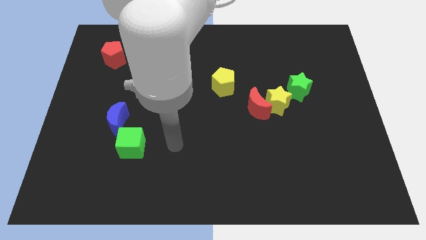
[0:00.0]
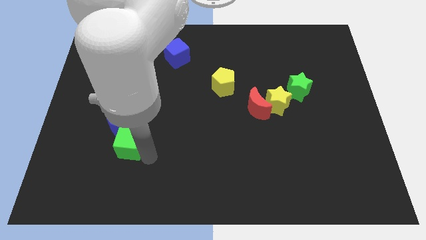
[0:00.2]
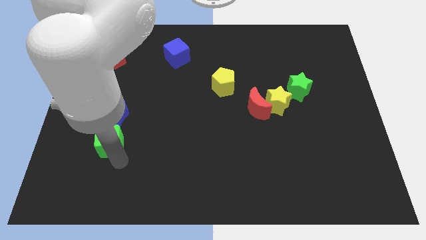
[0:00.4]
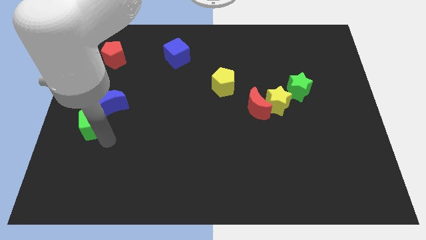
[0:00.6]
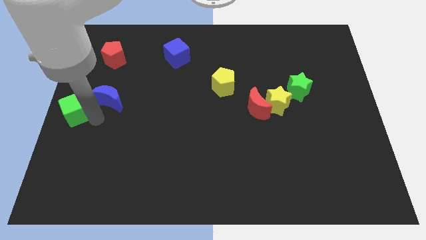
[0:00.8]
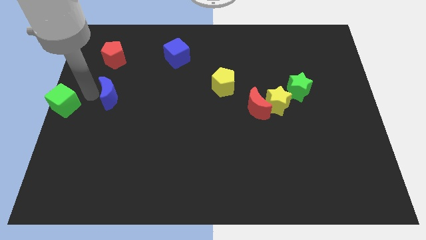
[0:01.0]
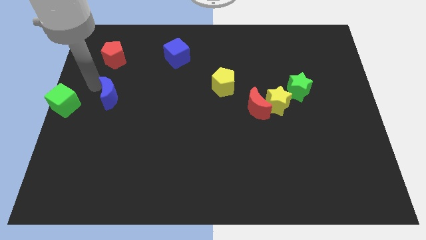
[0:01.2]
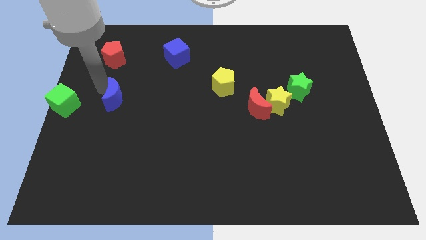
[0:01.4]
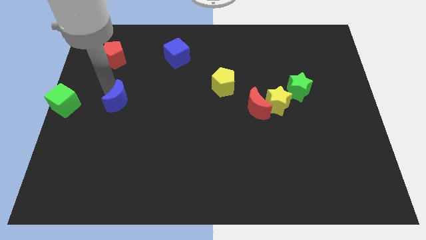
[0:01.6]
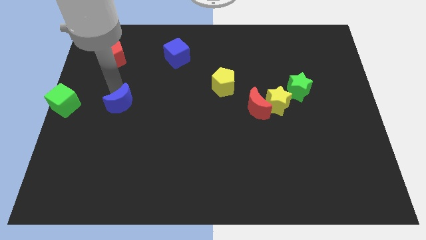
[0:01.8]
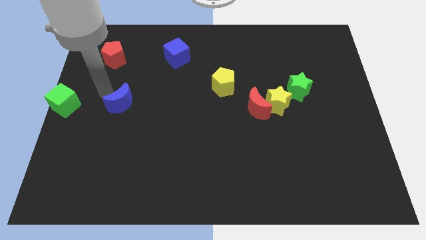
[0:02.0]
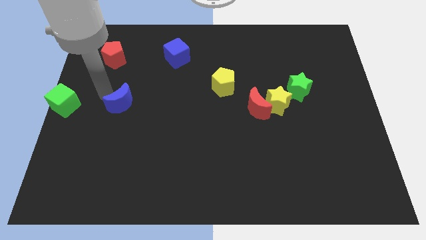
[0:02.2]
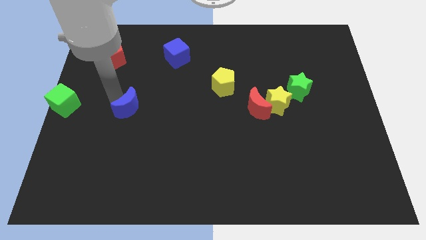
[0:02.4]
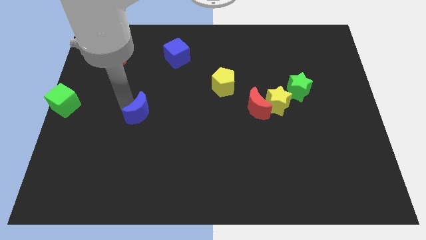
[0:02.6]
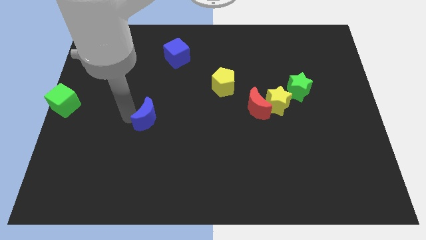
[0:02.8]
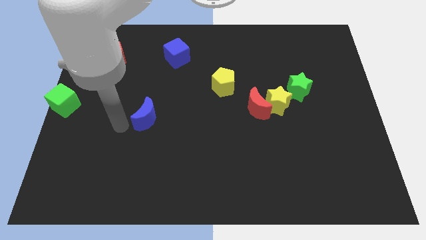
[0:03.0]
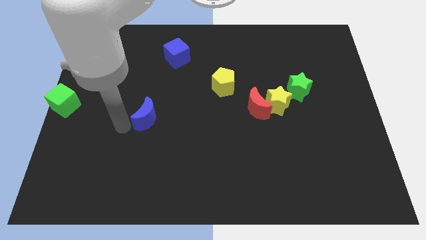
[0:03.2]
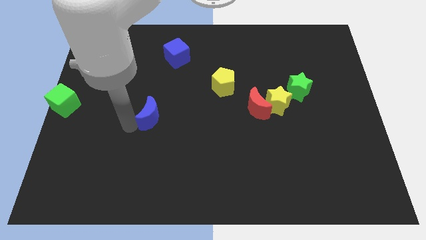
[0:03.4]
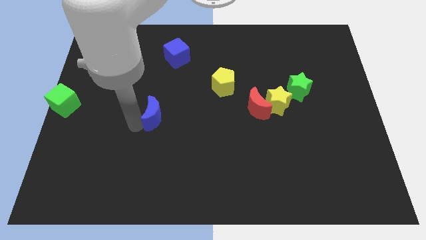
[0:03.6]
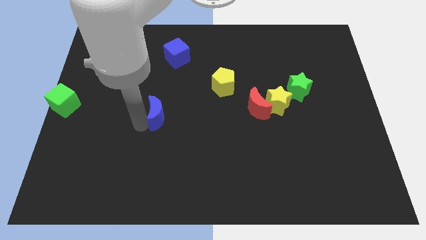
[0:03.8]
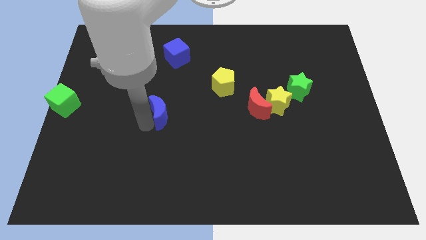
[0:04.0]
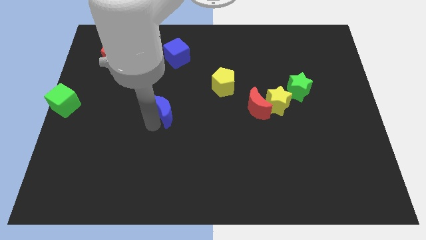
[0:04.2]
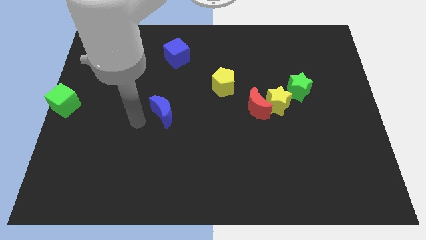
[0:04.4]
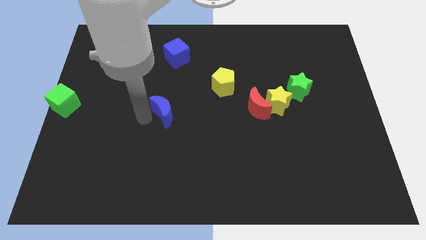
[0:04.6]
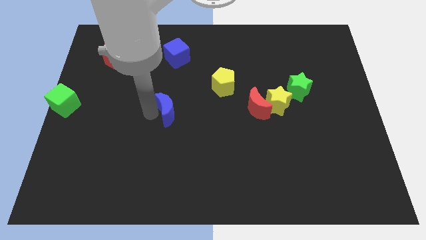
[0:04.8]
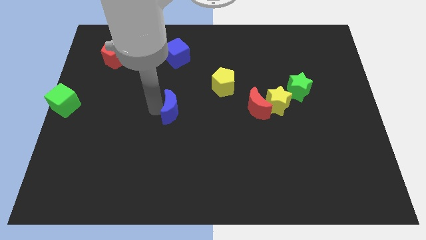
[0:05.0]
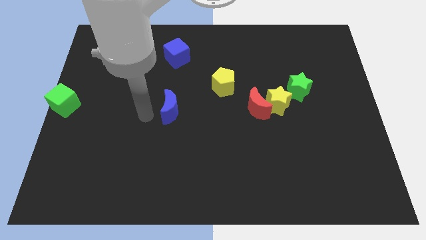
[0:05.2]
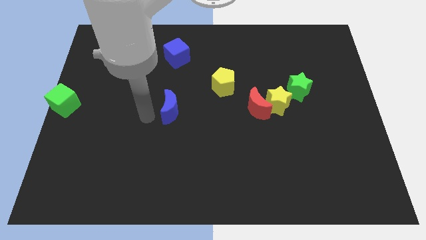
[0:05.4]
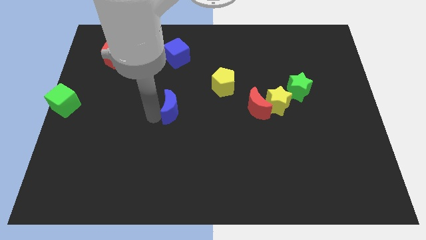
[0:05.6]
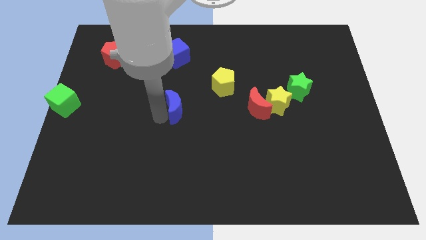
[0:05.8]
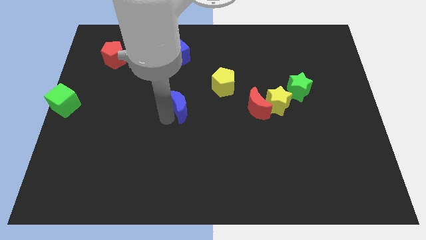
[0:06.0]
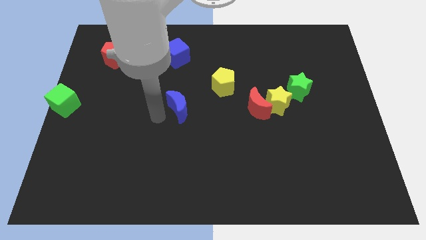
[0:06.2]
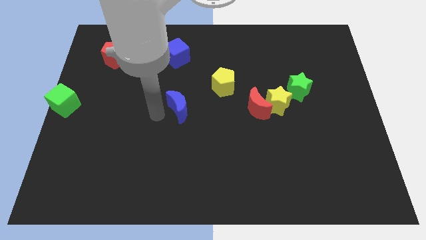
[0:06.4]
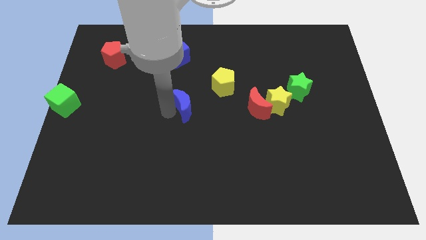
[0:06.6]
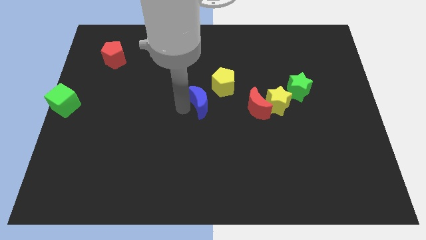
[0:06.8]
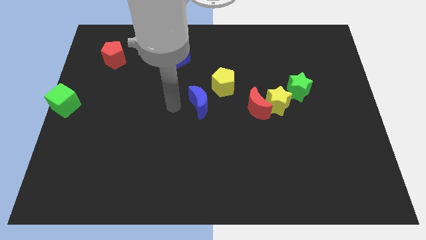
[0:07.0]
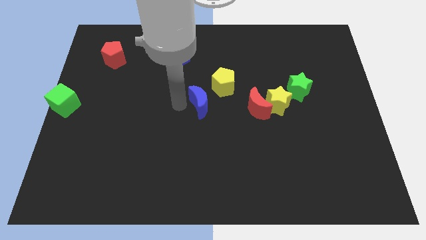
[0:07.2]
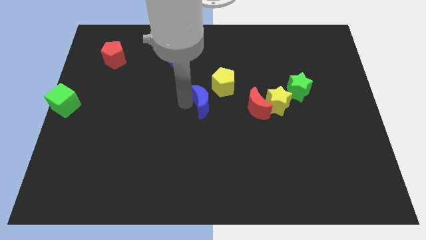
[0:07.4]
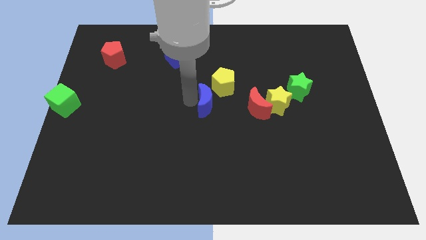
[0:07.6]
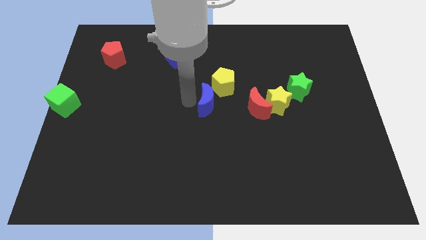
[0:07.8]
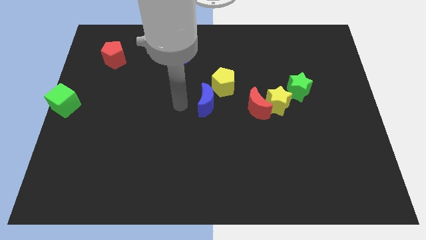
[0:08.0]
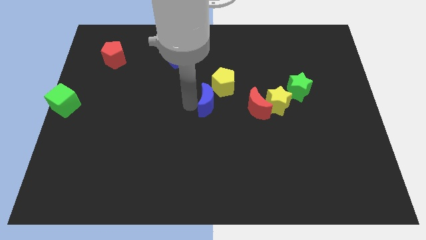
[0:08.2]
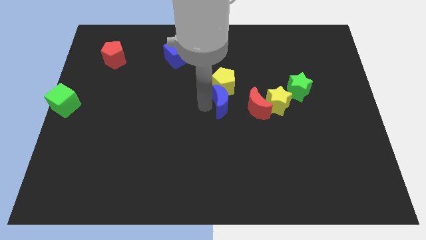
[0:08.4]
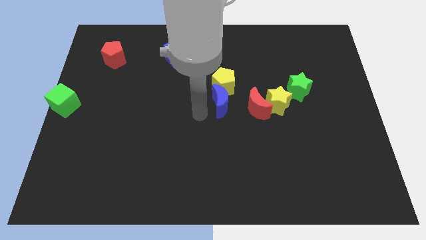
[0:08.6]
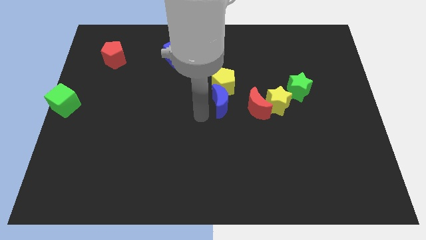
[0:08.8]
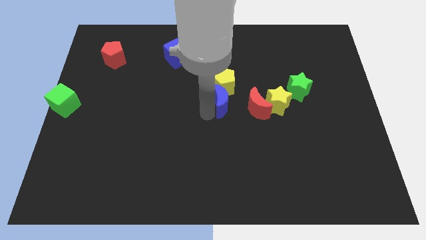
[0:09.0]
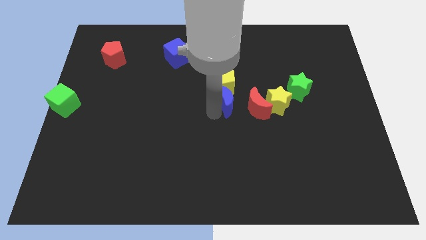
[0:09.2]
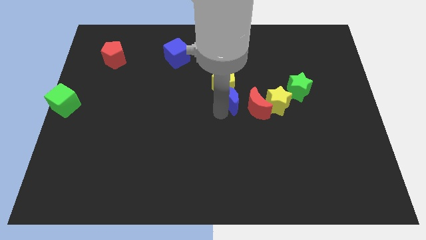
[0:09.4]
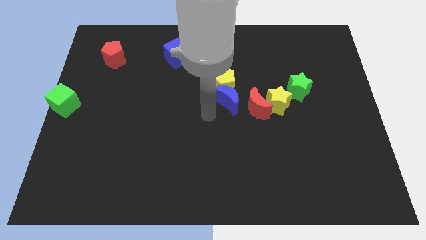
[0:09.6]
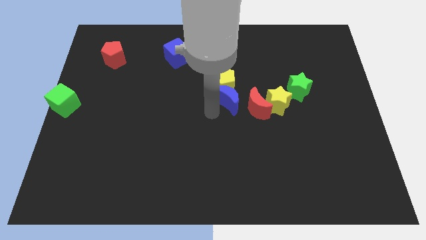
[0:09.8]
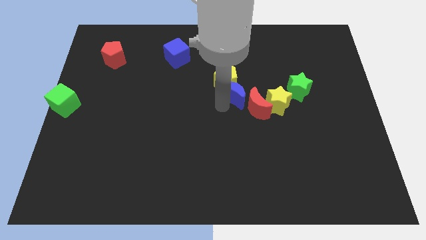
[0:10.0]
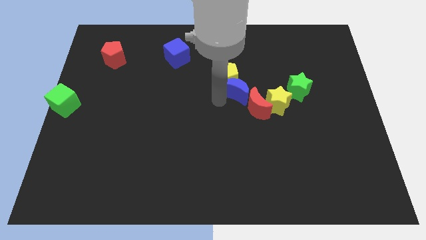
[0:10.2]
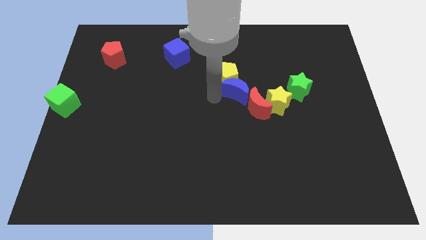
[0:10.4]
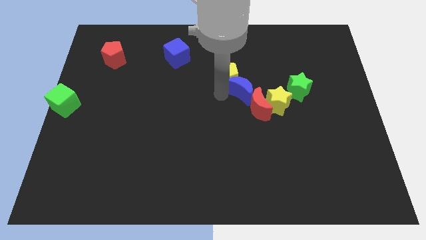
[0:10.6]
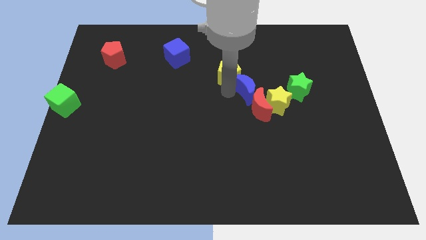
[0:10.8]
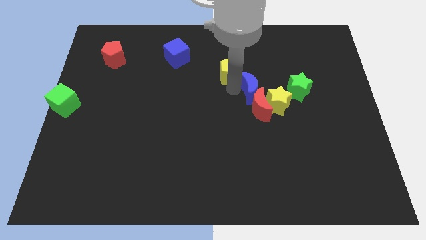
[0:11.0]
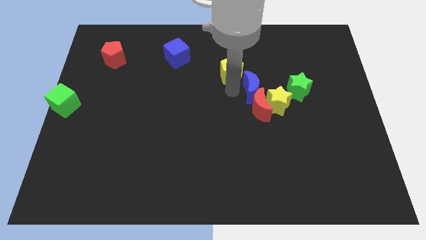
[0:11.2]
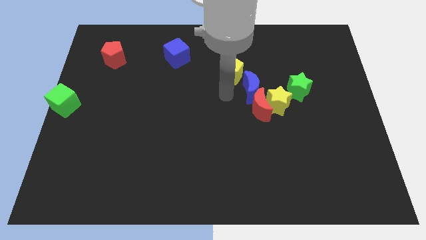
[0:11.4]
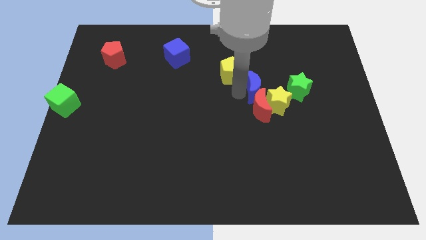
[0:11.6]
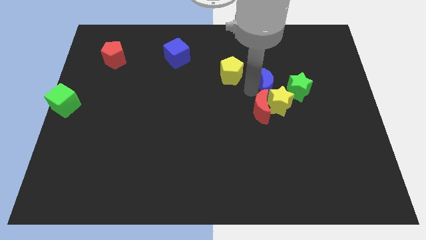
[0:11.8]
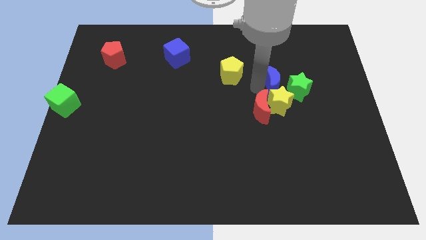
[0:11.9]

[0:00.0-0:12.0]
push the blue moon next to the green star
